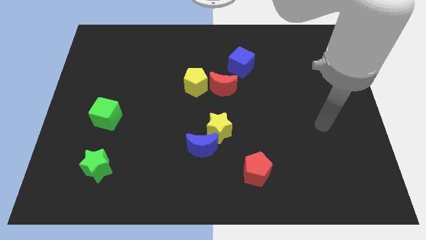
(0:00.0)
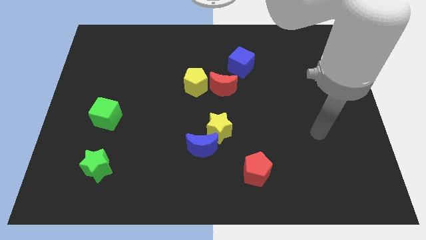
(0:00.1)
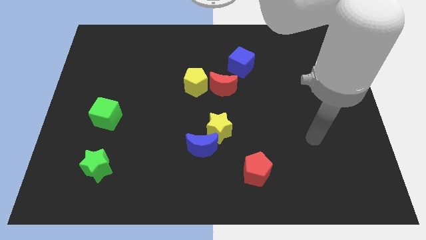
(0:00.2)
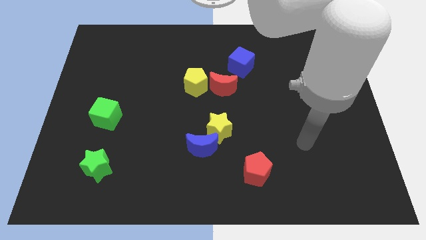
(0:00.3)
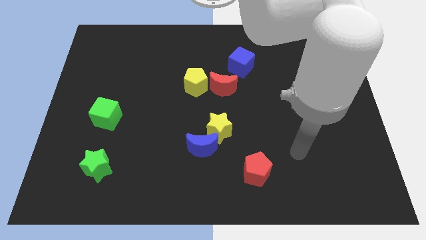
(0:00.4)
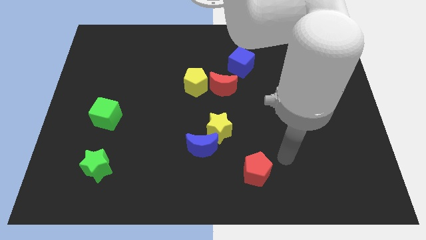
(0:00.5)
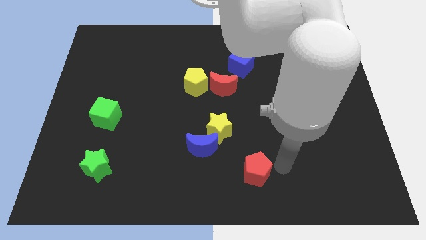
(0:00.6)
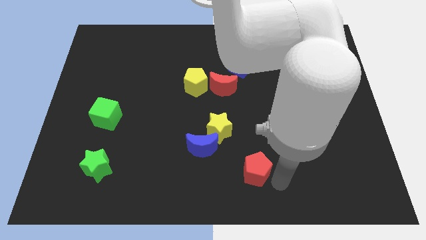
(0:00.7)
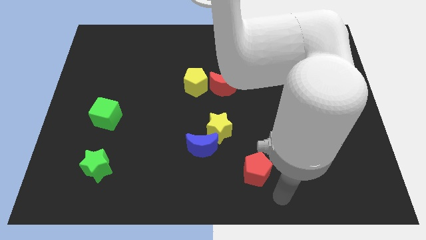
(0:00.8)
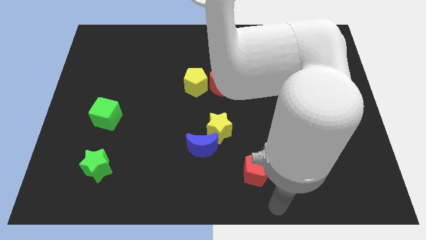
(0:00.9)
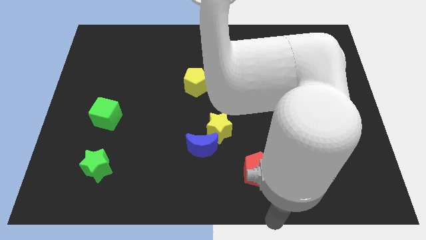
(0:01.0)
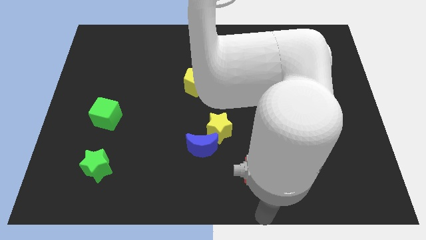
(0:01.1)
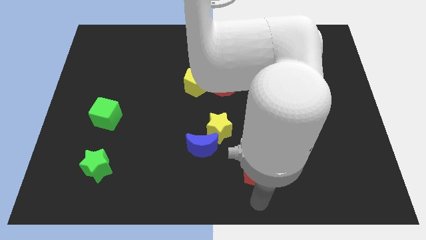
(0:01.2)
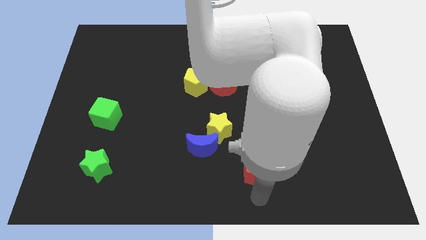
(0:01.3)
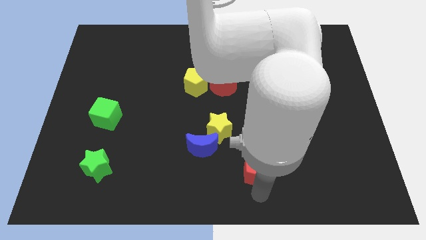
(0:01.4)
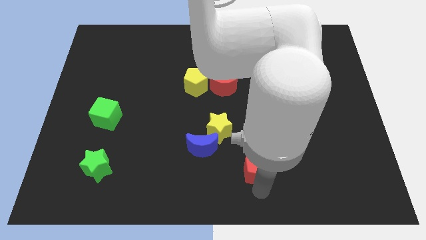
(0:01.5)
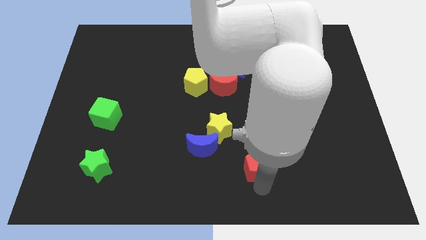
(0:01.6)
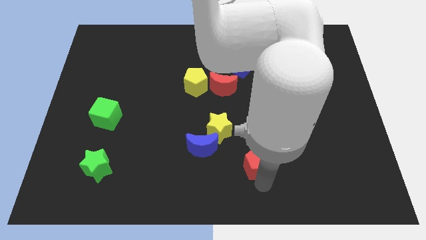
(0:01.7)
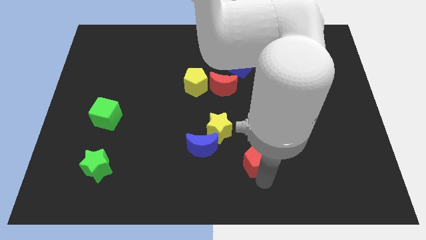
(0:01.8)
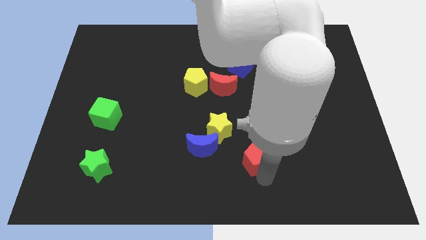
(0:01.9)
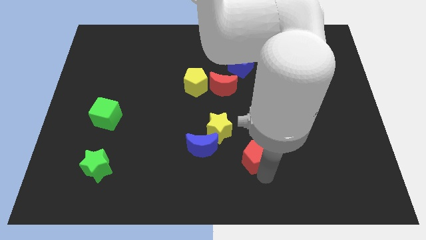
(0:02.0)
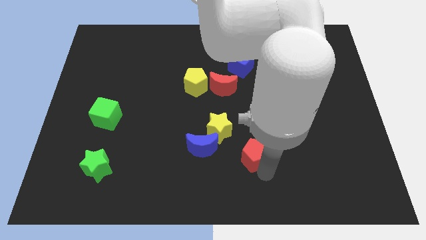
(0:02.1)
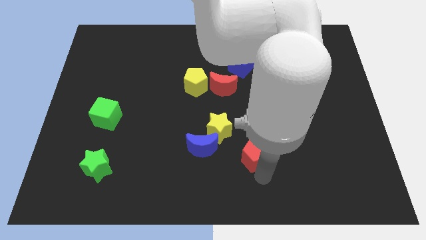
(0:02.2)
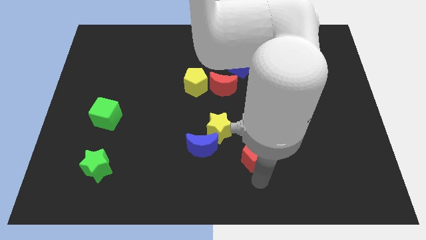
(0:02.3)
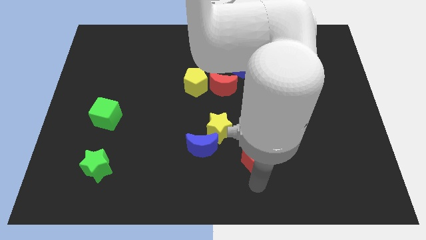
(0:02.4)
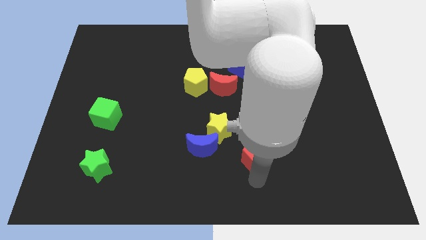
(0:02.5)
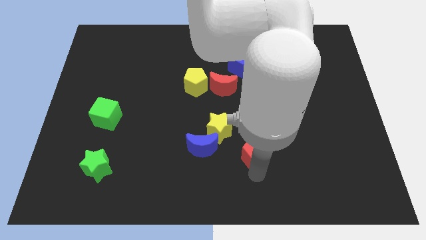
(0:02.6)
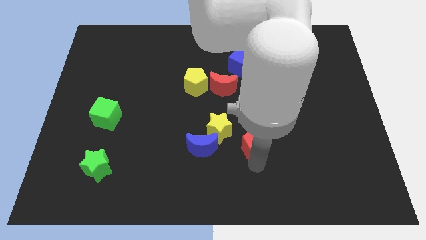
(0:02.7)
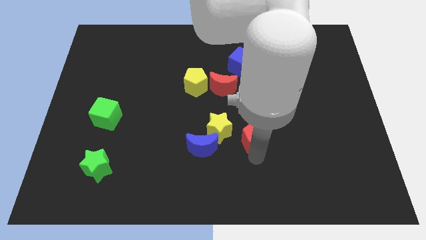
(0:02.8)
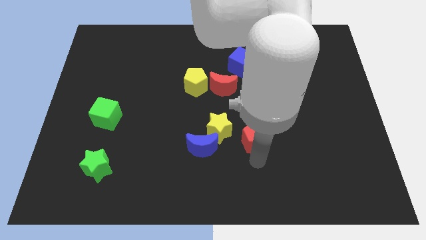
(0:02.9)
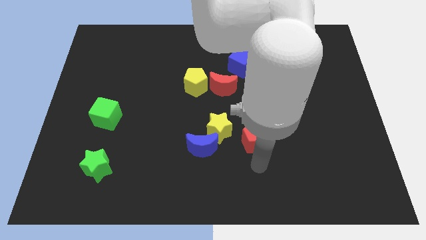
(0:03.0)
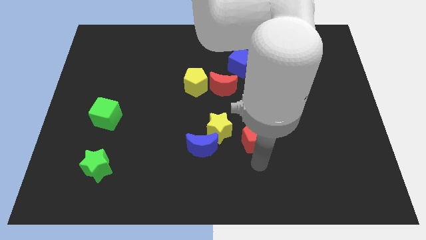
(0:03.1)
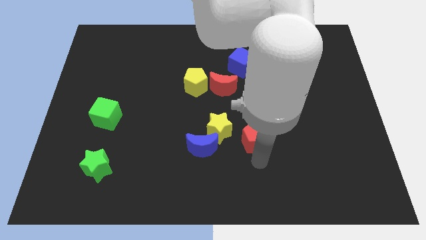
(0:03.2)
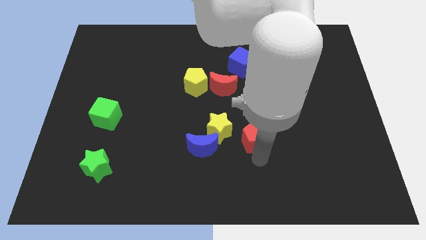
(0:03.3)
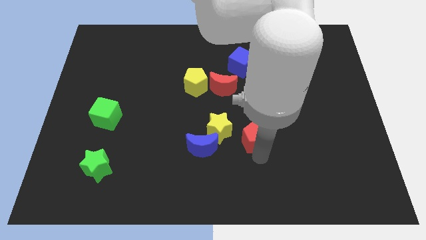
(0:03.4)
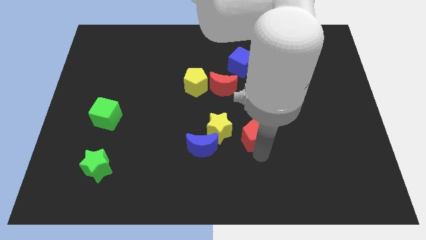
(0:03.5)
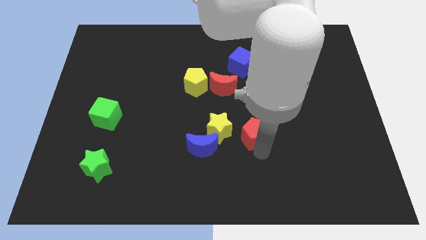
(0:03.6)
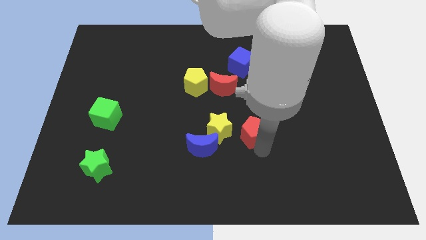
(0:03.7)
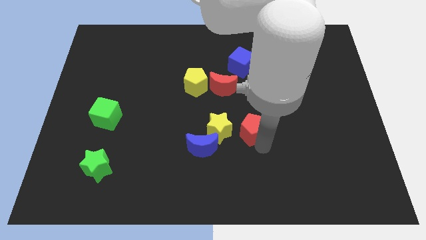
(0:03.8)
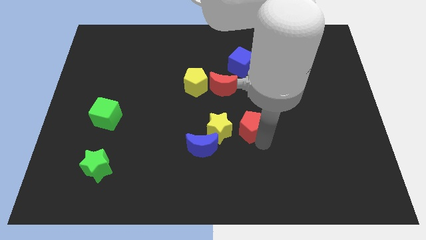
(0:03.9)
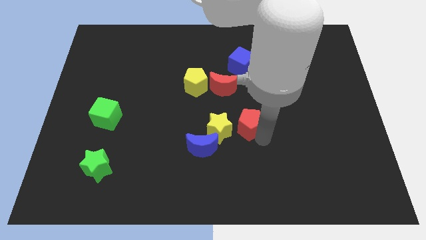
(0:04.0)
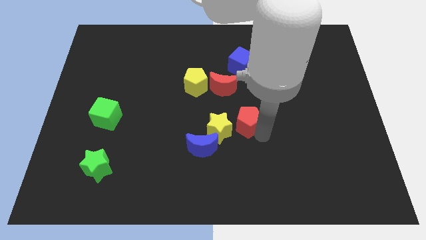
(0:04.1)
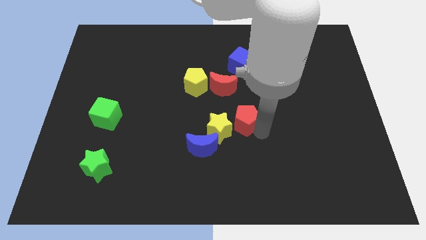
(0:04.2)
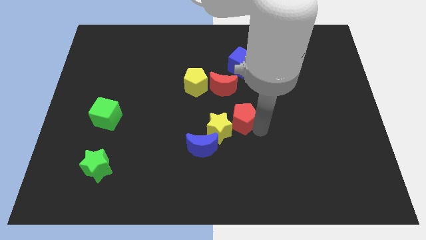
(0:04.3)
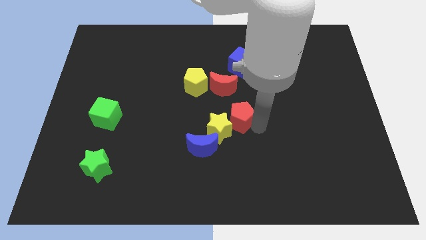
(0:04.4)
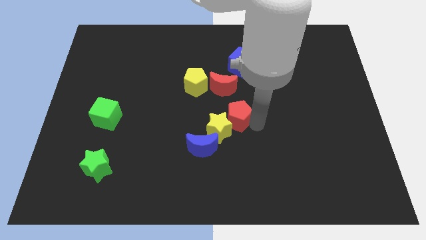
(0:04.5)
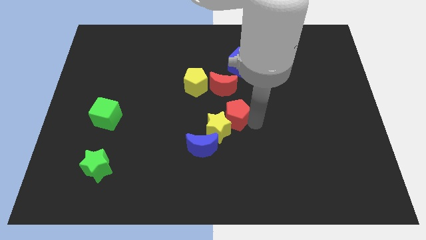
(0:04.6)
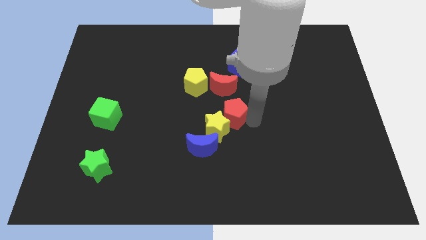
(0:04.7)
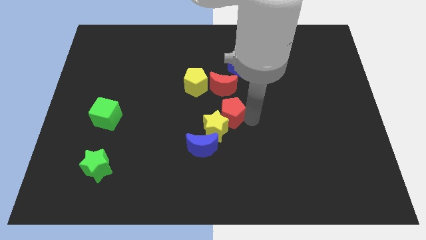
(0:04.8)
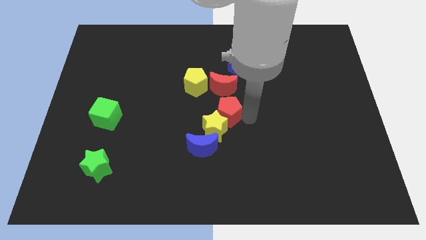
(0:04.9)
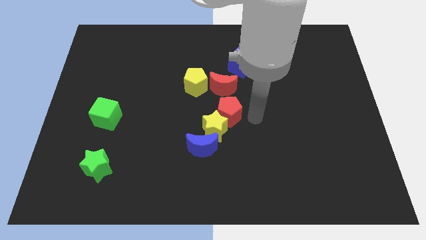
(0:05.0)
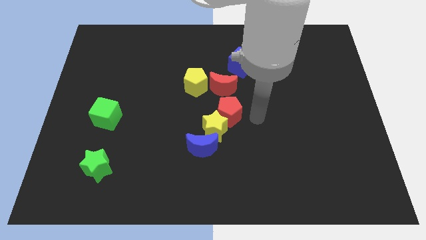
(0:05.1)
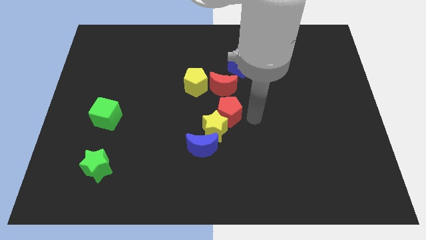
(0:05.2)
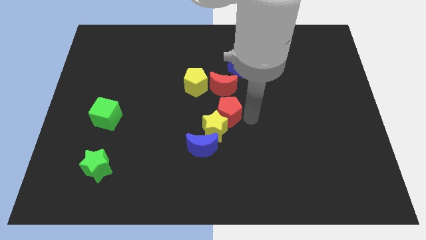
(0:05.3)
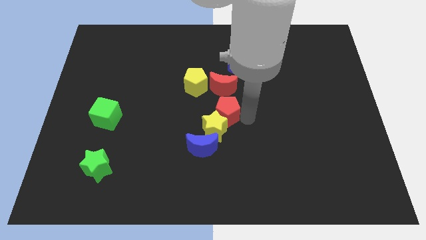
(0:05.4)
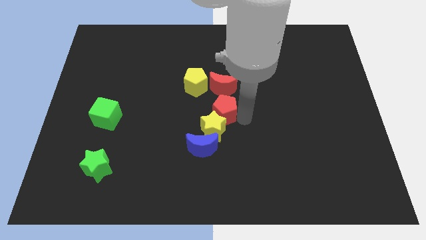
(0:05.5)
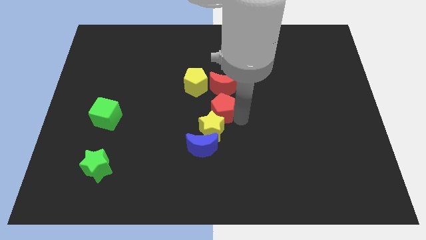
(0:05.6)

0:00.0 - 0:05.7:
push the red pentagon above the blue moon

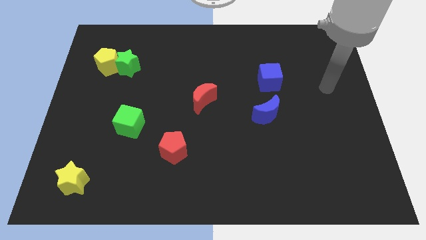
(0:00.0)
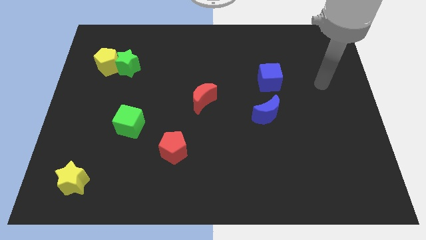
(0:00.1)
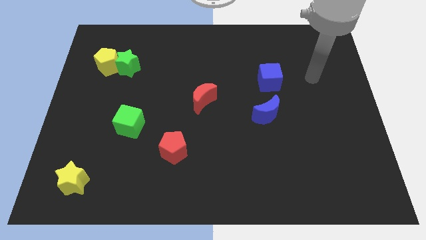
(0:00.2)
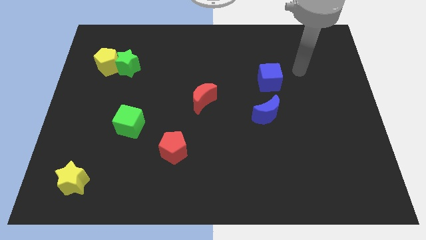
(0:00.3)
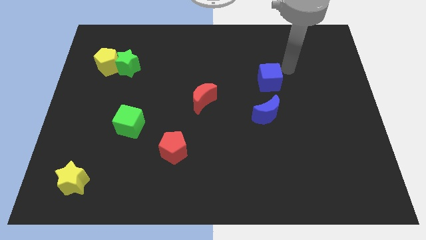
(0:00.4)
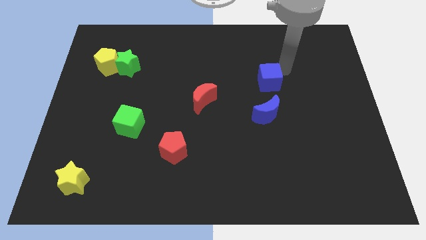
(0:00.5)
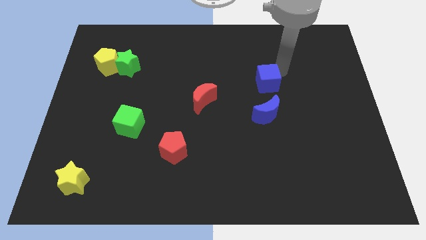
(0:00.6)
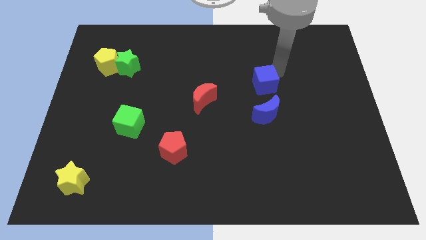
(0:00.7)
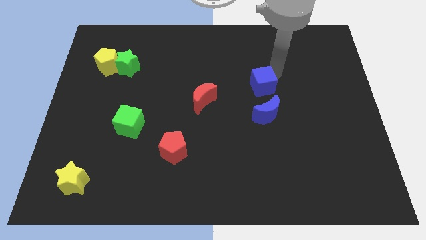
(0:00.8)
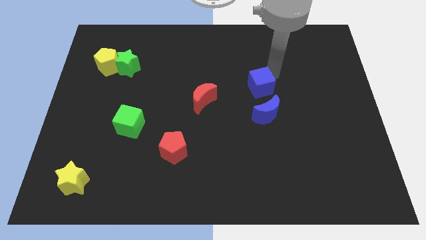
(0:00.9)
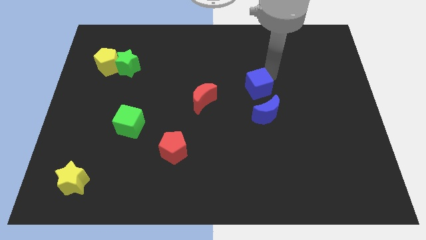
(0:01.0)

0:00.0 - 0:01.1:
move the blue cube to the top left of the blue moon
